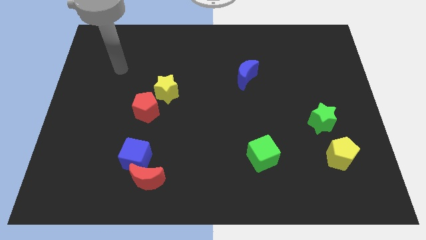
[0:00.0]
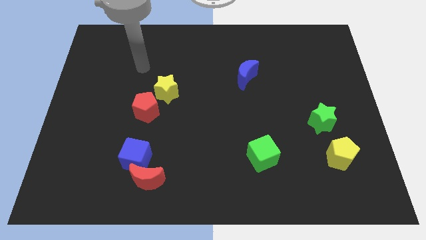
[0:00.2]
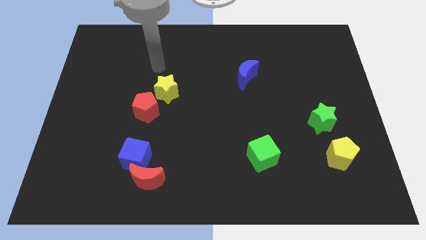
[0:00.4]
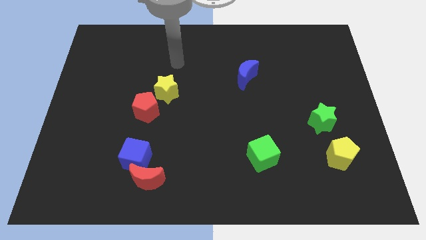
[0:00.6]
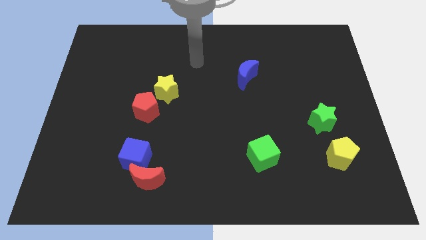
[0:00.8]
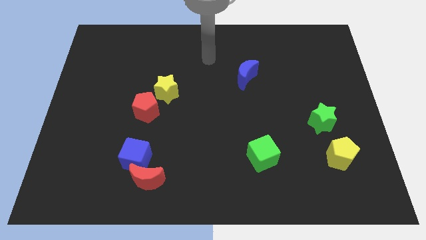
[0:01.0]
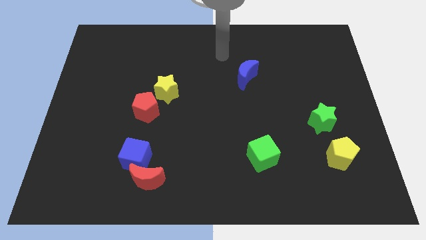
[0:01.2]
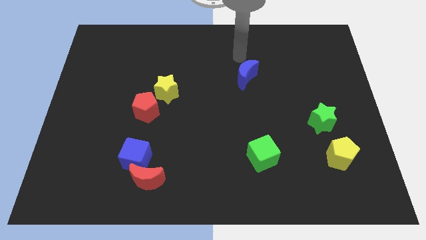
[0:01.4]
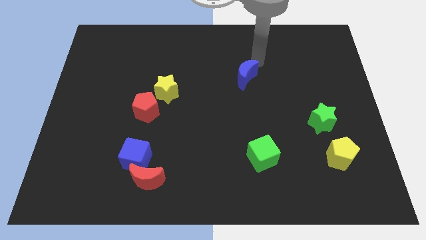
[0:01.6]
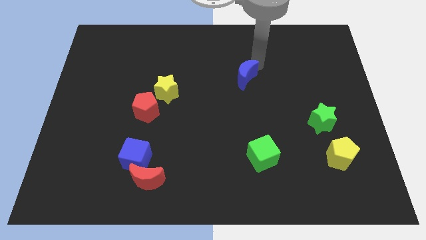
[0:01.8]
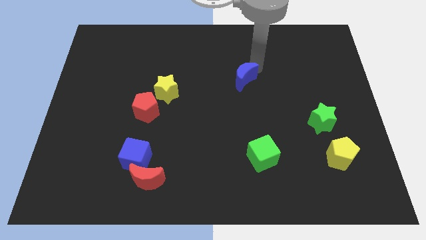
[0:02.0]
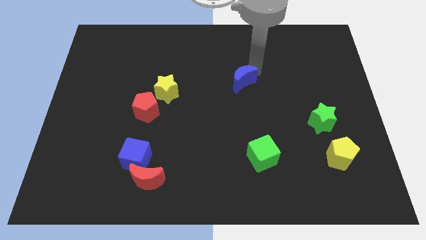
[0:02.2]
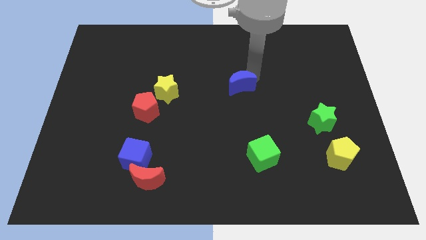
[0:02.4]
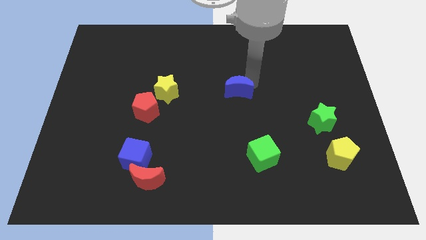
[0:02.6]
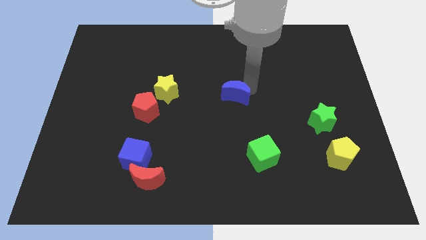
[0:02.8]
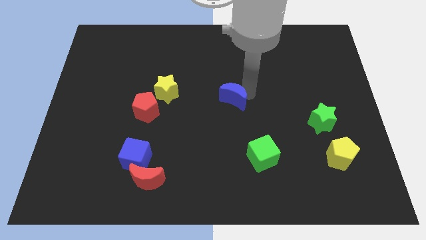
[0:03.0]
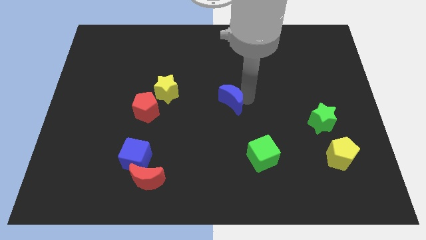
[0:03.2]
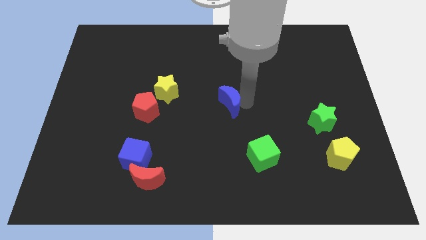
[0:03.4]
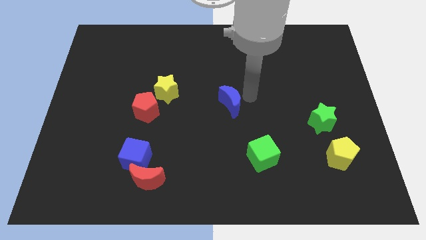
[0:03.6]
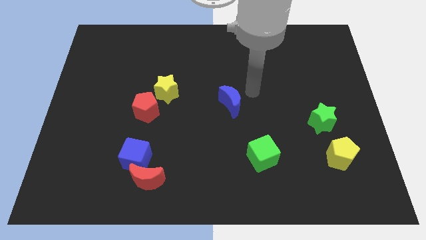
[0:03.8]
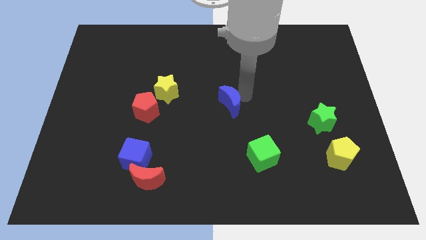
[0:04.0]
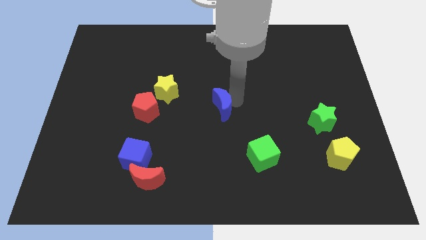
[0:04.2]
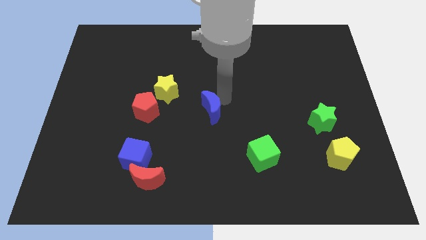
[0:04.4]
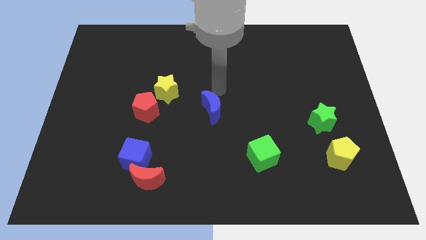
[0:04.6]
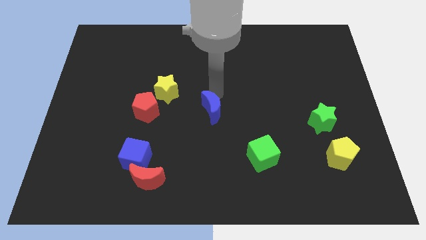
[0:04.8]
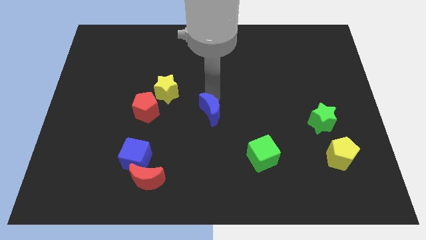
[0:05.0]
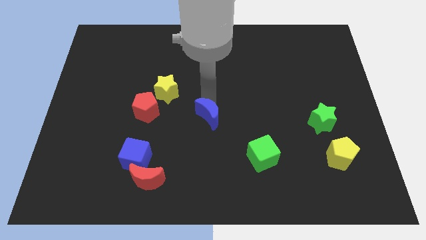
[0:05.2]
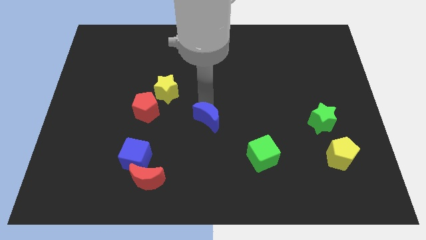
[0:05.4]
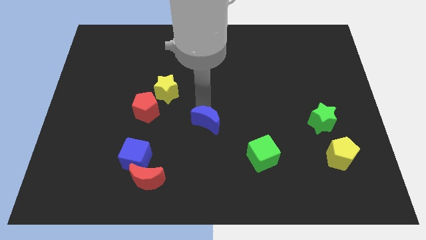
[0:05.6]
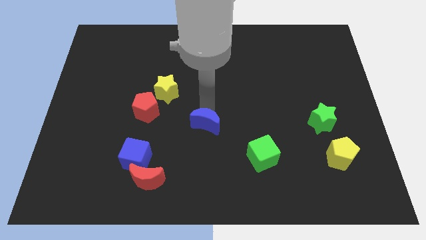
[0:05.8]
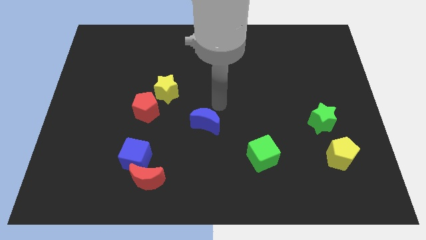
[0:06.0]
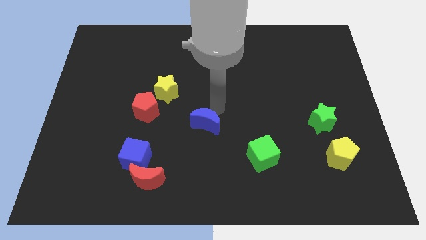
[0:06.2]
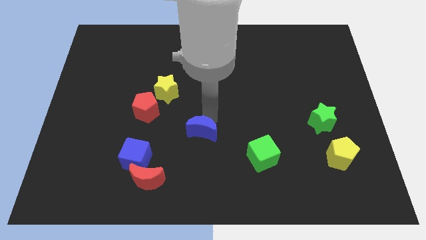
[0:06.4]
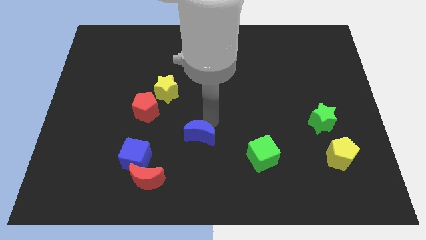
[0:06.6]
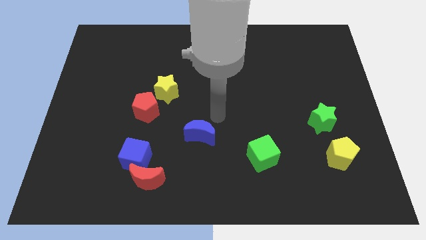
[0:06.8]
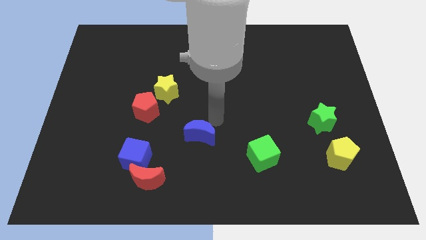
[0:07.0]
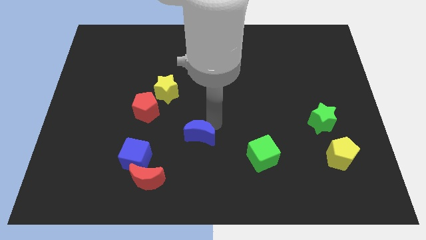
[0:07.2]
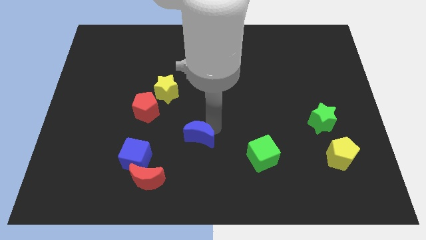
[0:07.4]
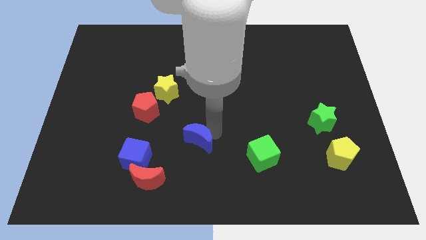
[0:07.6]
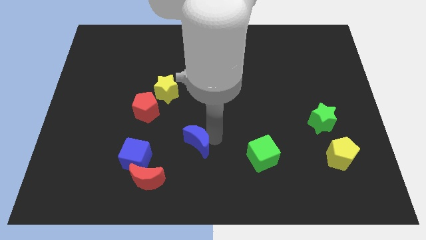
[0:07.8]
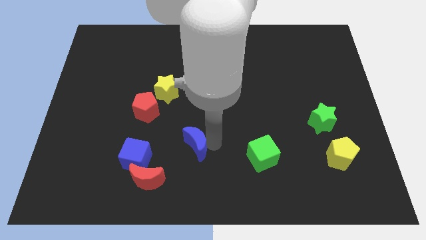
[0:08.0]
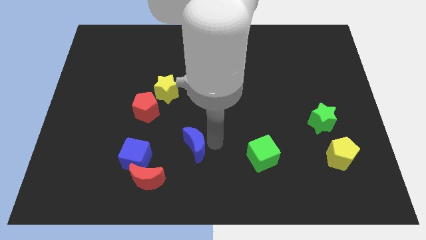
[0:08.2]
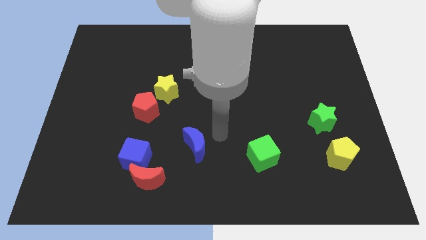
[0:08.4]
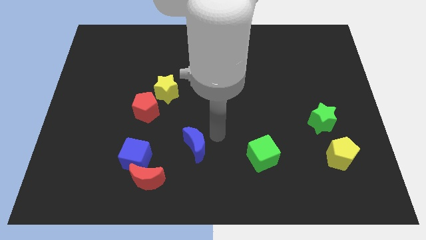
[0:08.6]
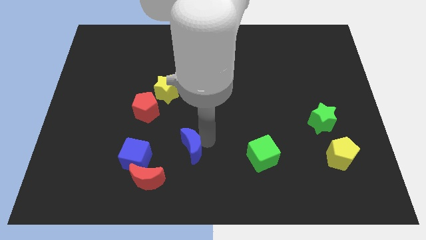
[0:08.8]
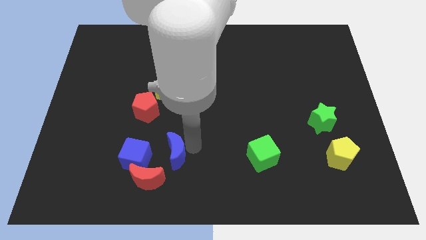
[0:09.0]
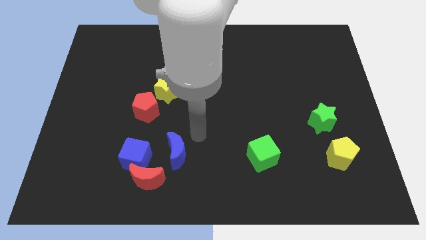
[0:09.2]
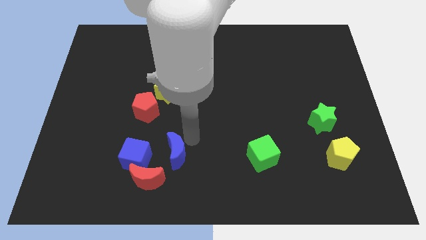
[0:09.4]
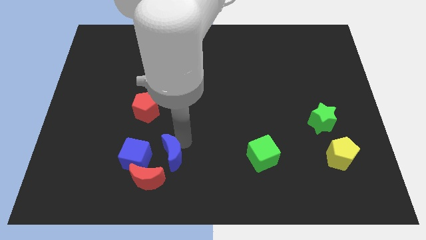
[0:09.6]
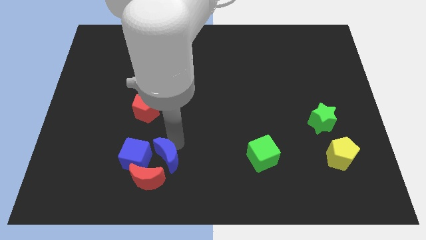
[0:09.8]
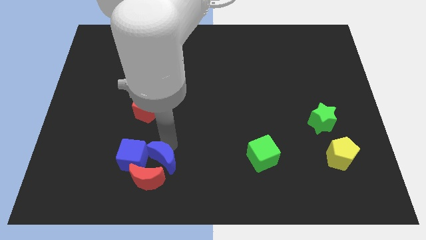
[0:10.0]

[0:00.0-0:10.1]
move the blue moon to the red moon

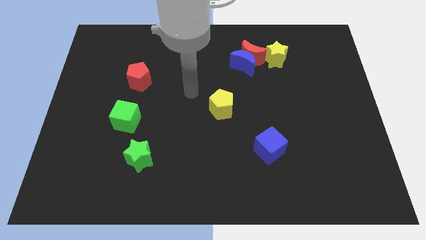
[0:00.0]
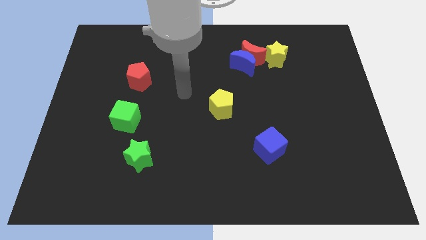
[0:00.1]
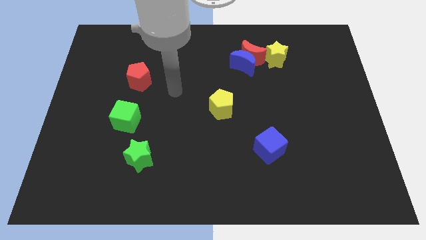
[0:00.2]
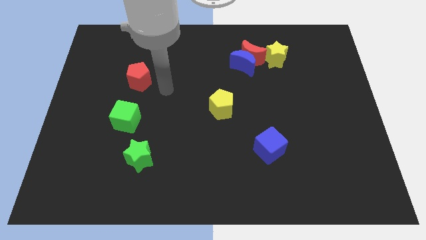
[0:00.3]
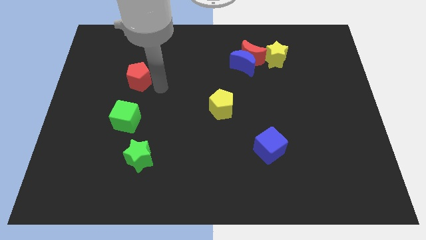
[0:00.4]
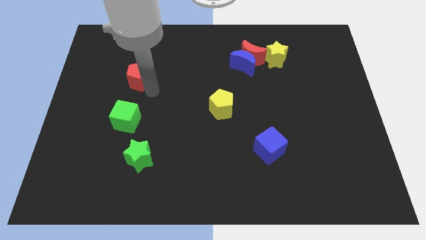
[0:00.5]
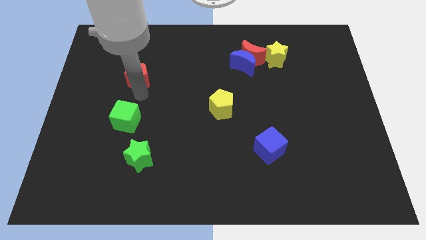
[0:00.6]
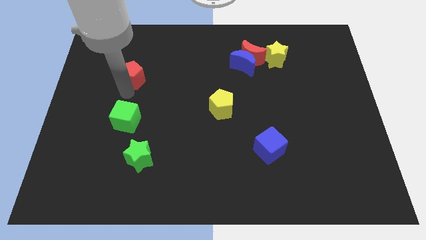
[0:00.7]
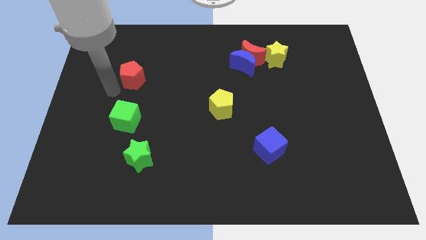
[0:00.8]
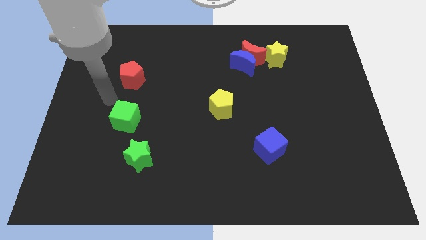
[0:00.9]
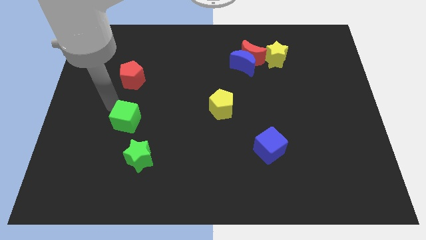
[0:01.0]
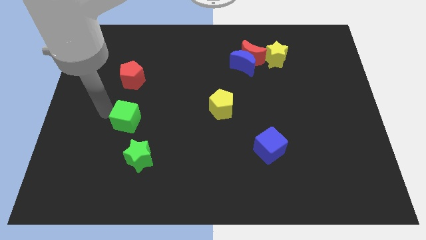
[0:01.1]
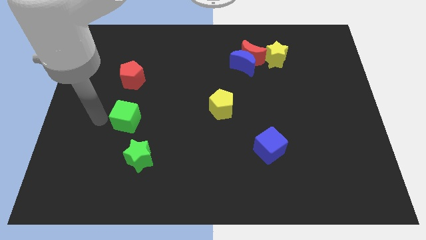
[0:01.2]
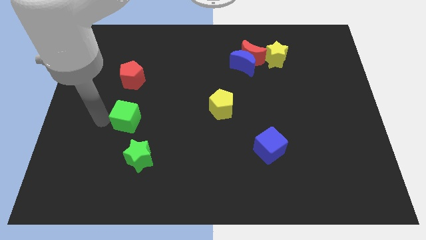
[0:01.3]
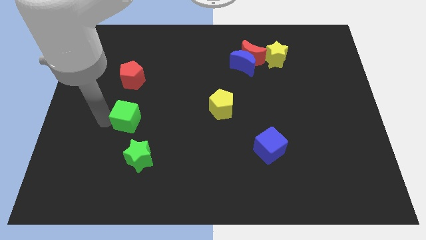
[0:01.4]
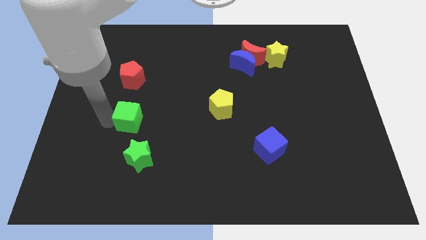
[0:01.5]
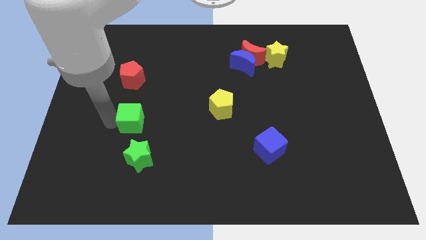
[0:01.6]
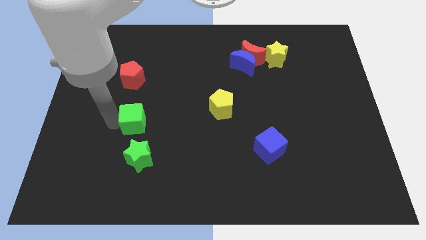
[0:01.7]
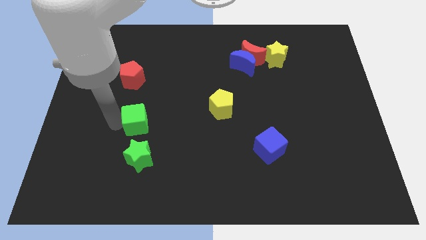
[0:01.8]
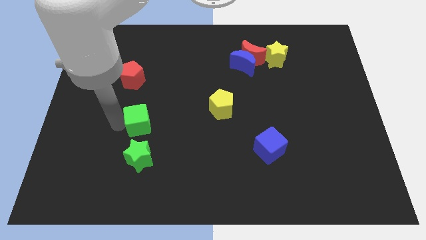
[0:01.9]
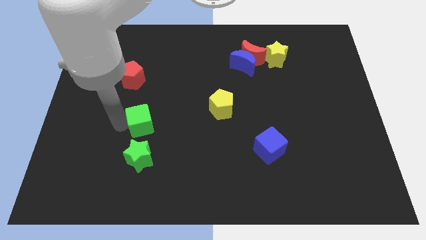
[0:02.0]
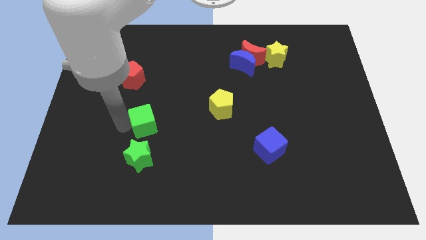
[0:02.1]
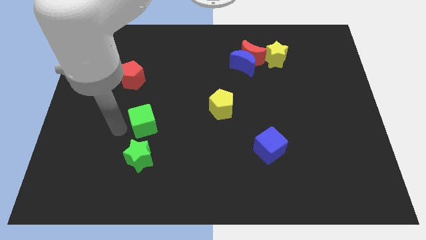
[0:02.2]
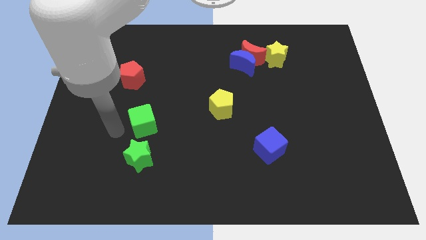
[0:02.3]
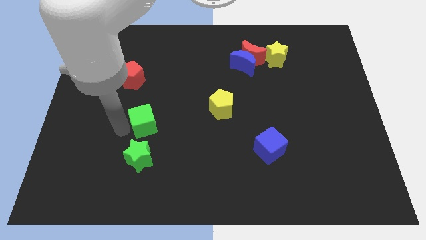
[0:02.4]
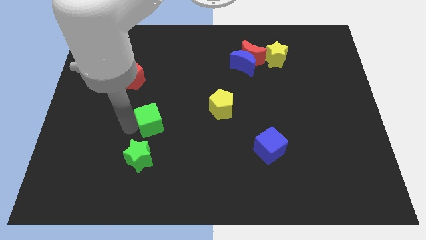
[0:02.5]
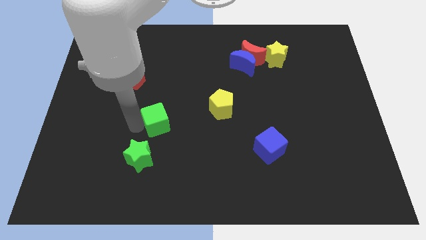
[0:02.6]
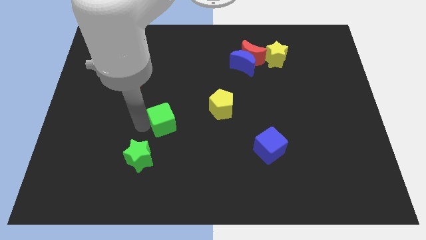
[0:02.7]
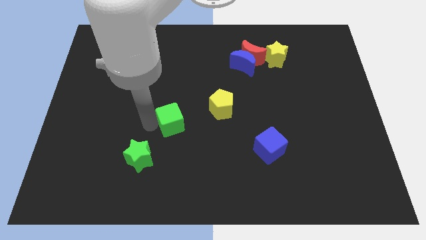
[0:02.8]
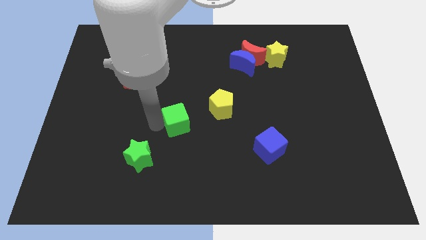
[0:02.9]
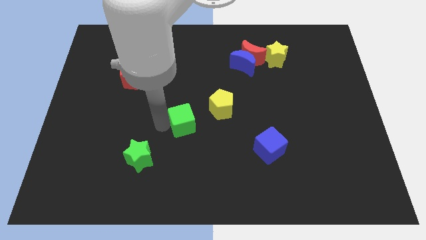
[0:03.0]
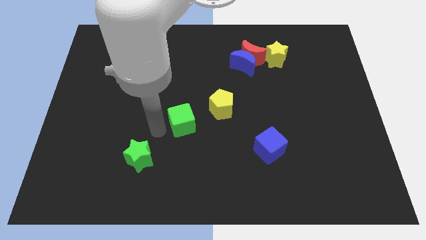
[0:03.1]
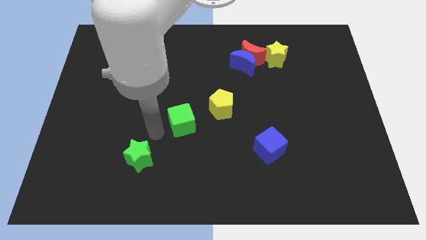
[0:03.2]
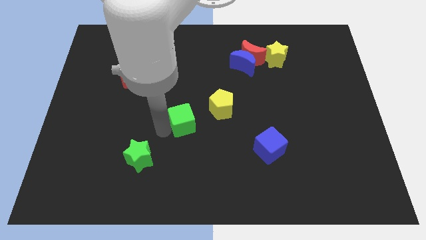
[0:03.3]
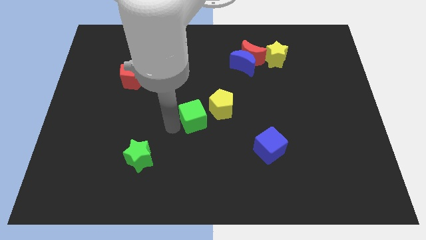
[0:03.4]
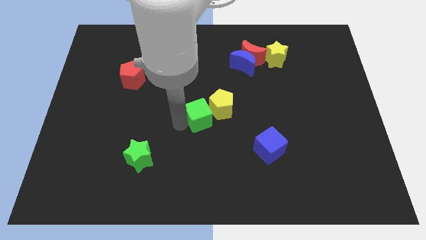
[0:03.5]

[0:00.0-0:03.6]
put the green cube towards the yellow pentagon
